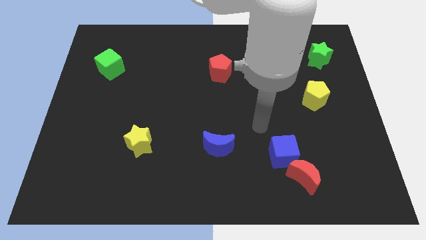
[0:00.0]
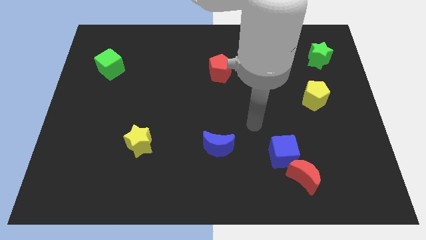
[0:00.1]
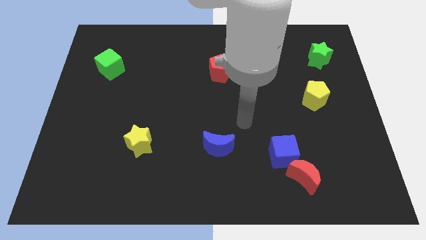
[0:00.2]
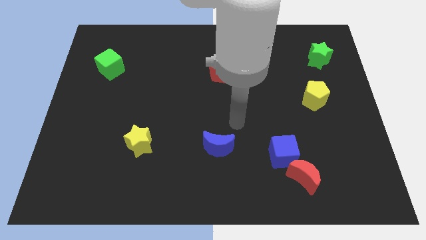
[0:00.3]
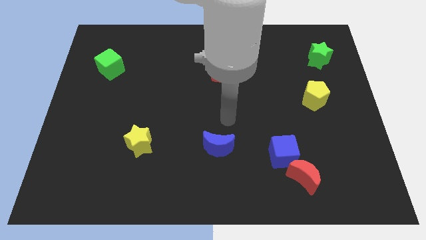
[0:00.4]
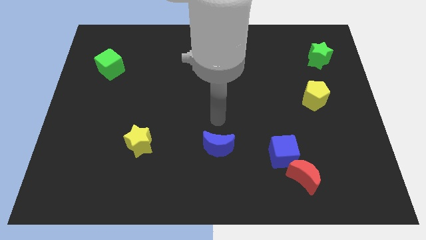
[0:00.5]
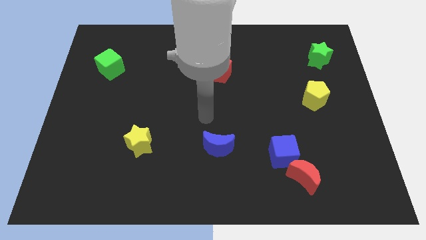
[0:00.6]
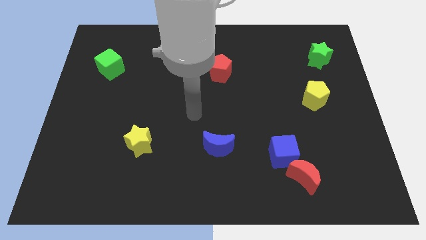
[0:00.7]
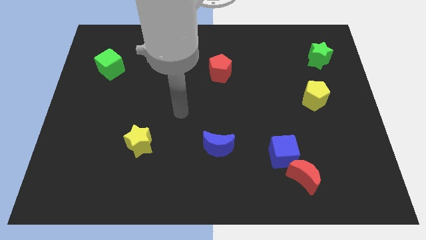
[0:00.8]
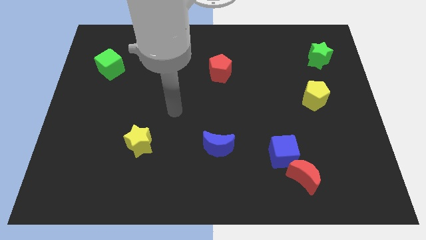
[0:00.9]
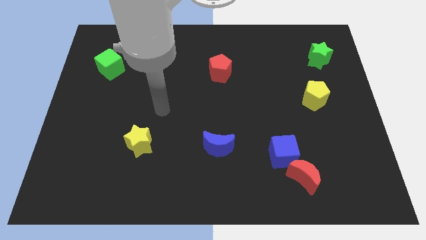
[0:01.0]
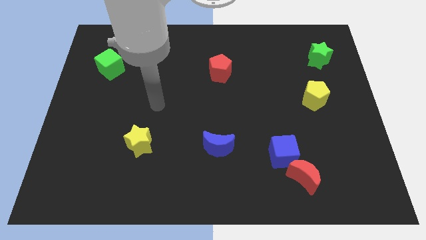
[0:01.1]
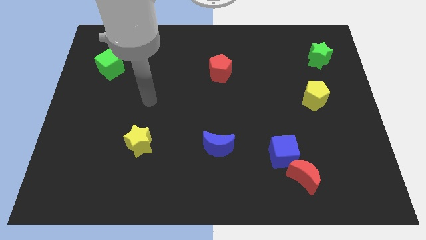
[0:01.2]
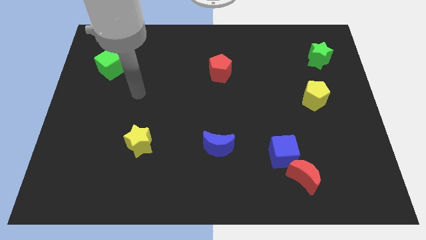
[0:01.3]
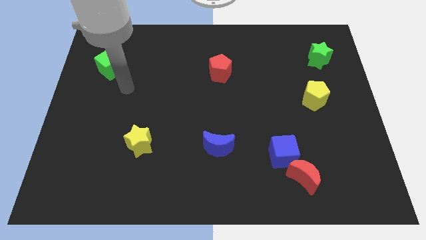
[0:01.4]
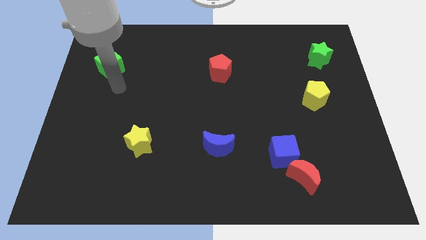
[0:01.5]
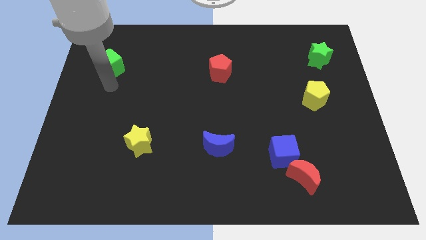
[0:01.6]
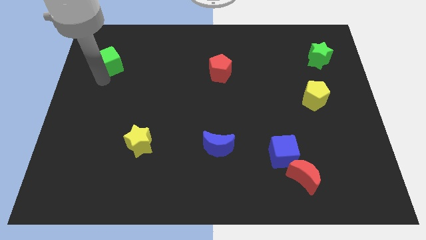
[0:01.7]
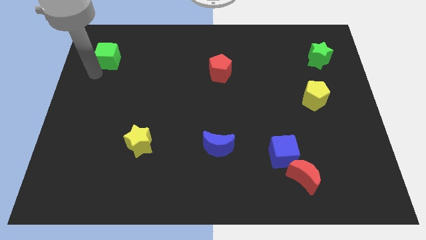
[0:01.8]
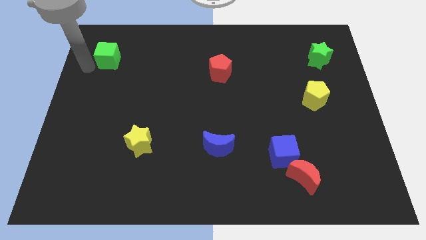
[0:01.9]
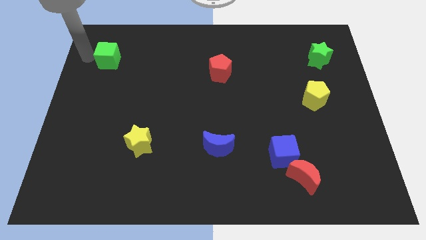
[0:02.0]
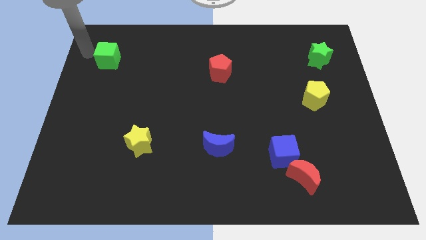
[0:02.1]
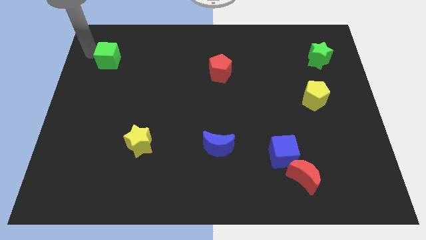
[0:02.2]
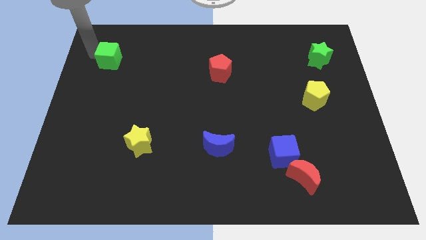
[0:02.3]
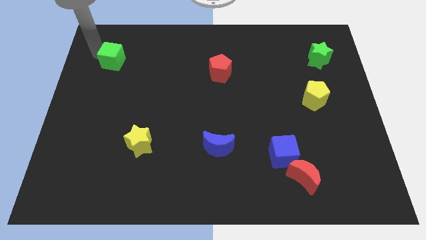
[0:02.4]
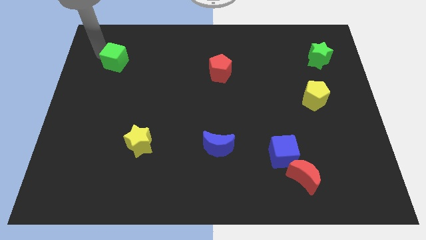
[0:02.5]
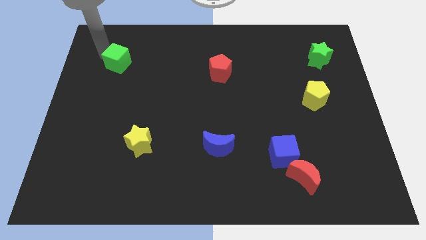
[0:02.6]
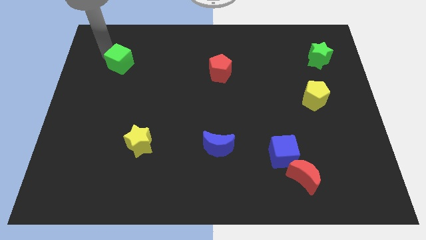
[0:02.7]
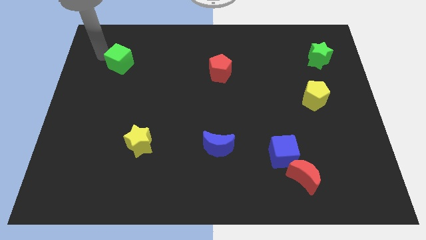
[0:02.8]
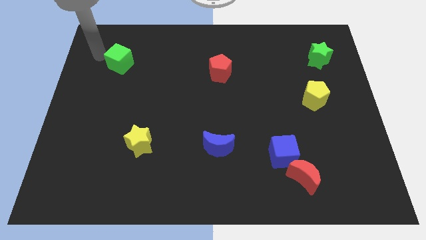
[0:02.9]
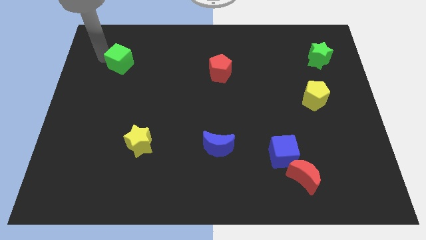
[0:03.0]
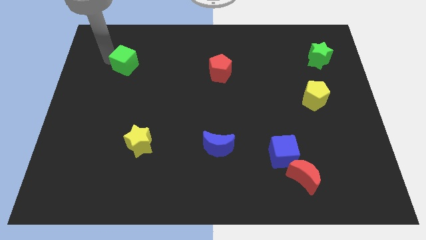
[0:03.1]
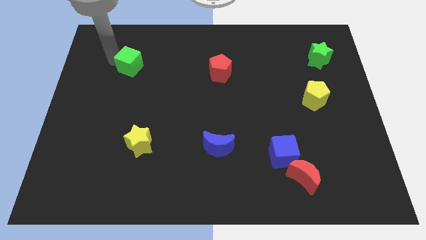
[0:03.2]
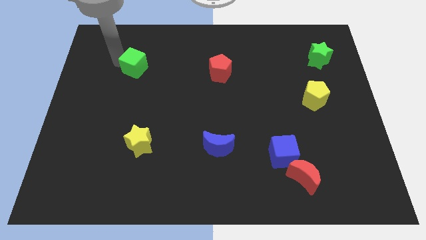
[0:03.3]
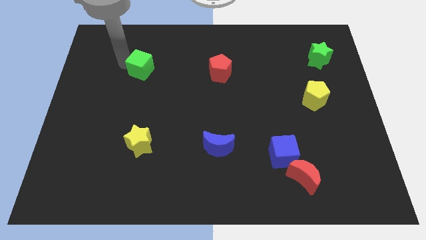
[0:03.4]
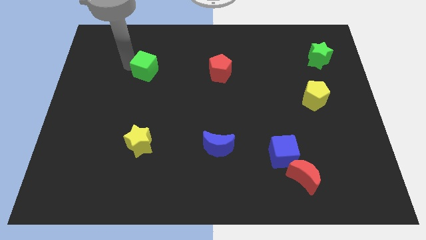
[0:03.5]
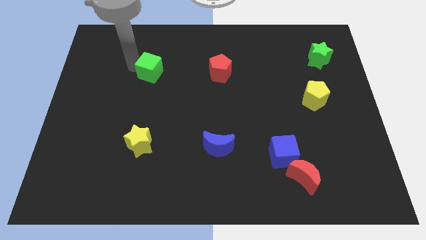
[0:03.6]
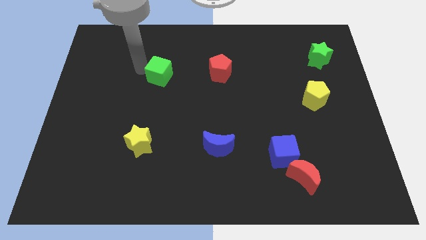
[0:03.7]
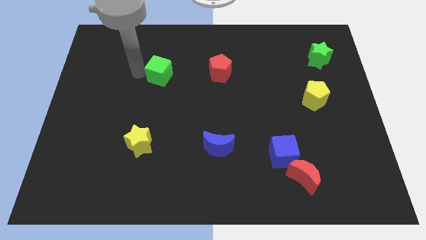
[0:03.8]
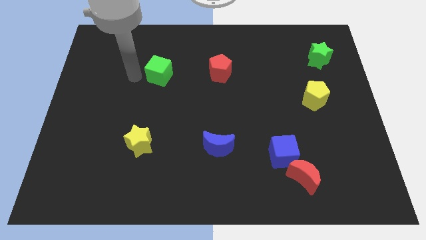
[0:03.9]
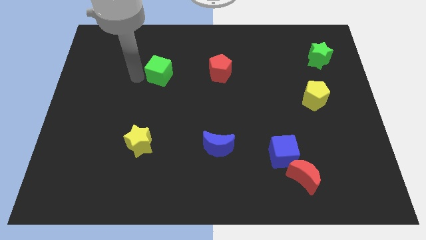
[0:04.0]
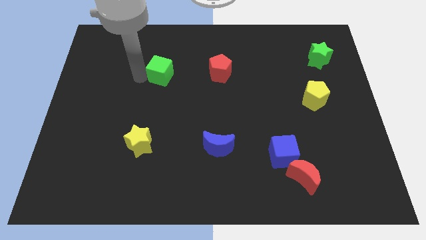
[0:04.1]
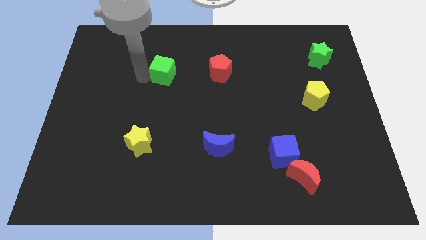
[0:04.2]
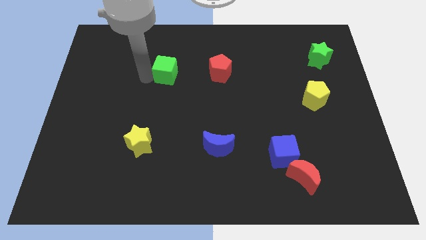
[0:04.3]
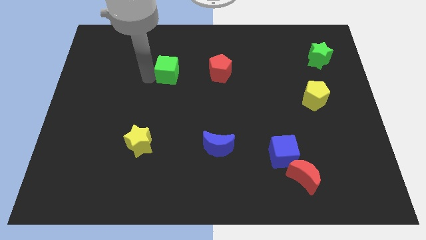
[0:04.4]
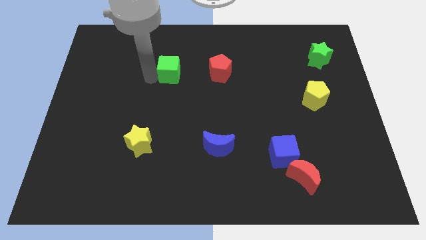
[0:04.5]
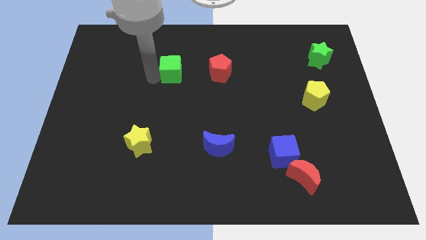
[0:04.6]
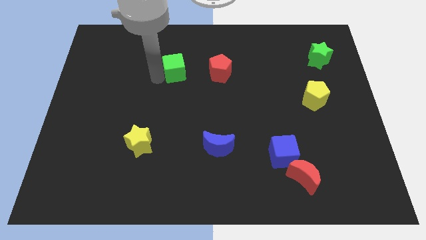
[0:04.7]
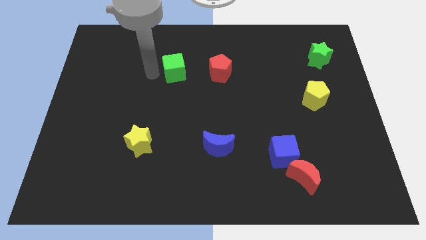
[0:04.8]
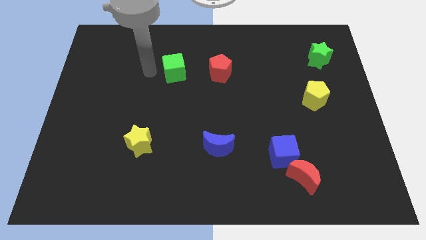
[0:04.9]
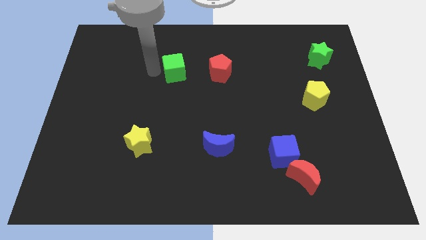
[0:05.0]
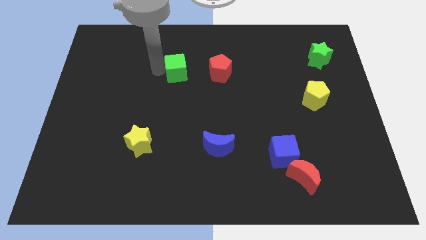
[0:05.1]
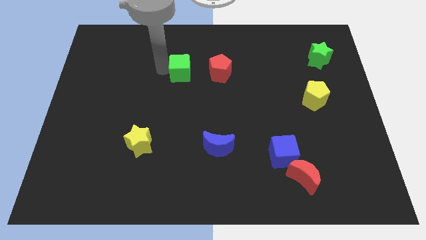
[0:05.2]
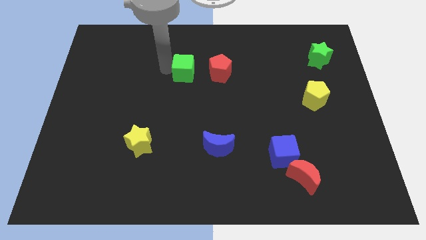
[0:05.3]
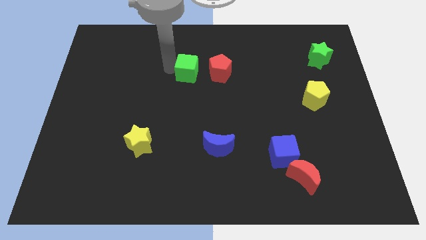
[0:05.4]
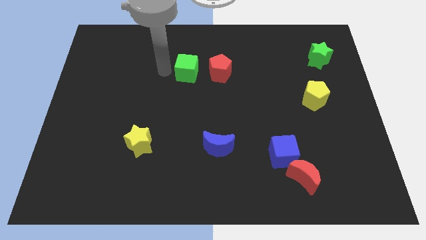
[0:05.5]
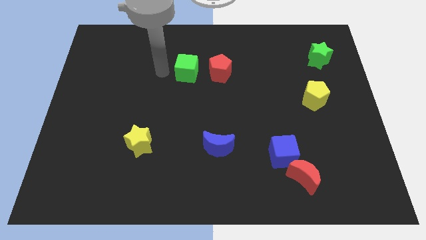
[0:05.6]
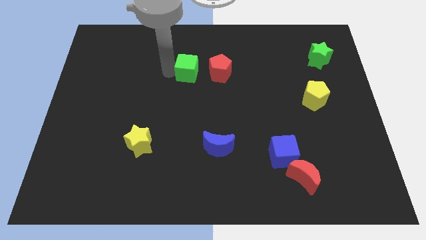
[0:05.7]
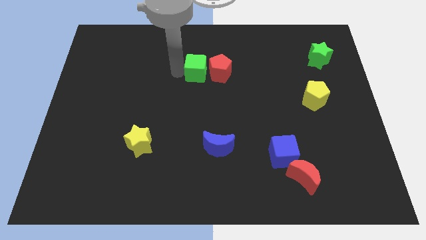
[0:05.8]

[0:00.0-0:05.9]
push the green cube towards the red pentagon

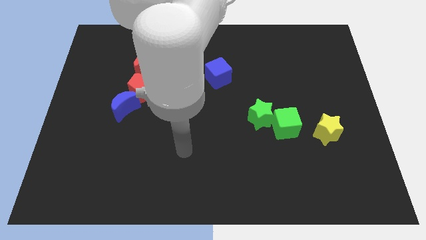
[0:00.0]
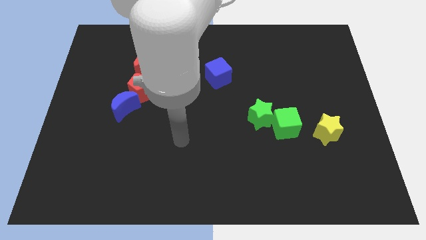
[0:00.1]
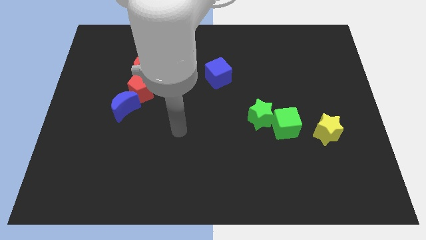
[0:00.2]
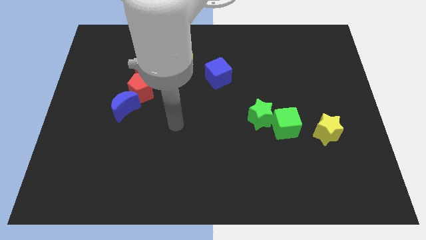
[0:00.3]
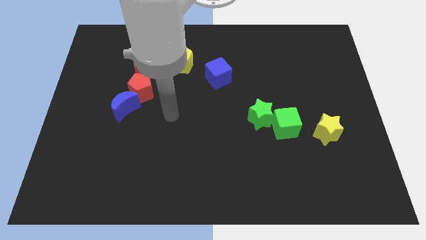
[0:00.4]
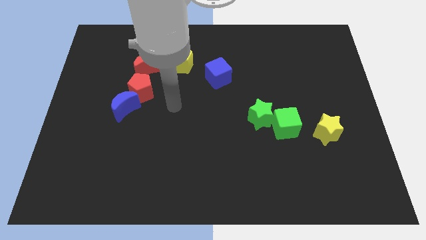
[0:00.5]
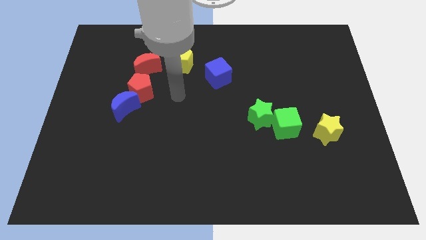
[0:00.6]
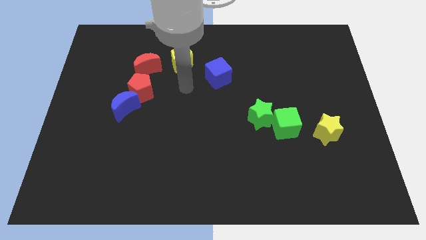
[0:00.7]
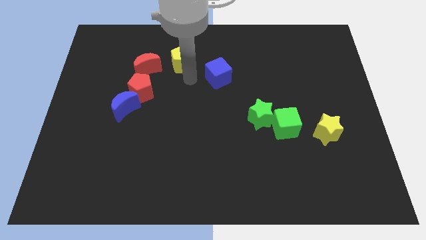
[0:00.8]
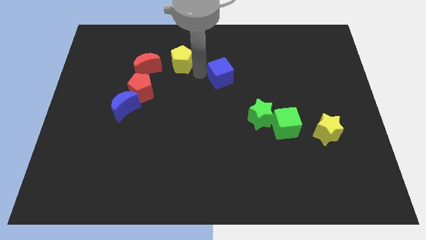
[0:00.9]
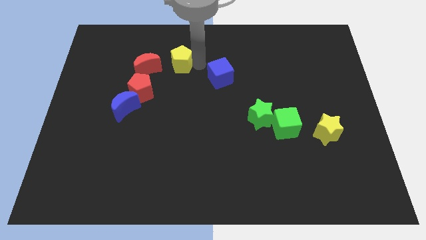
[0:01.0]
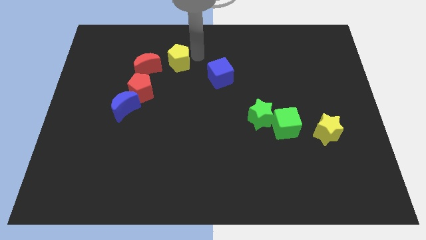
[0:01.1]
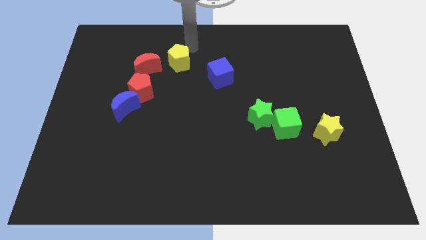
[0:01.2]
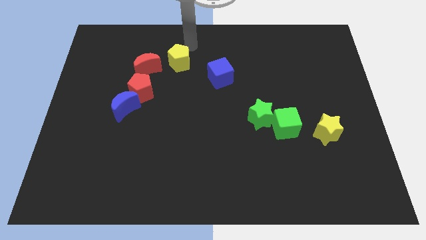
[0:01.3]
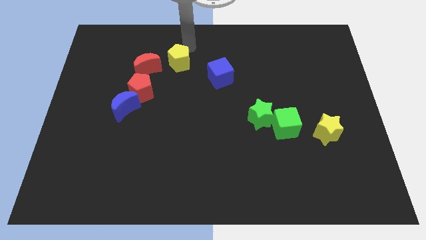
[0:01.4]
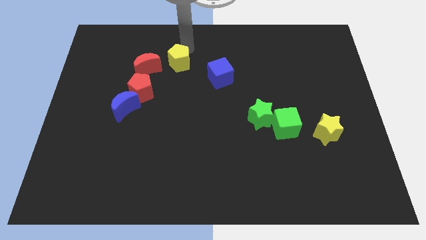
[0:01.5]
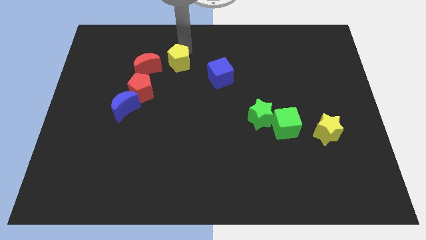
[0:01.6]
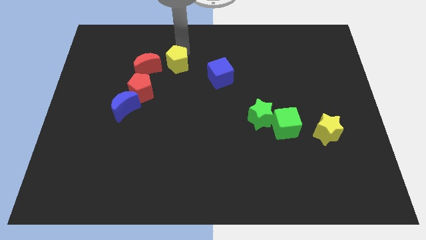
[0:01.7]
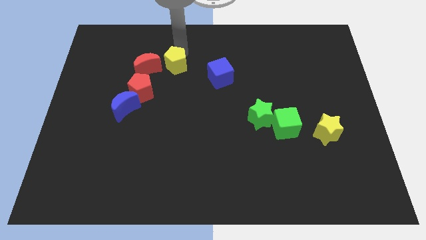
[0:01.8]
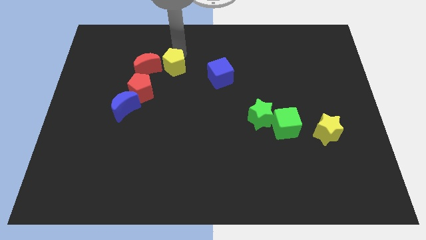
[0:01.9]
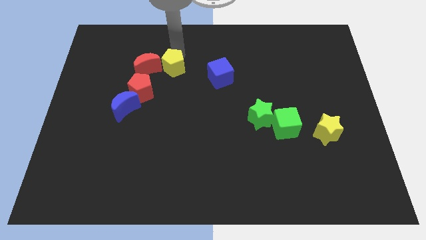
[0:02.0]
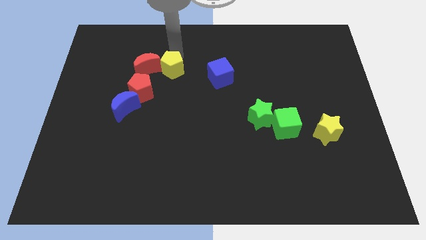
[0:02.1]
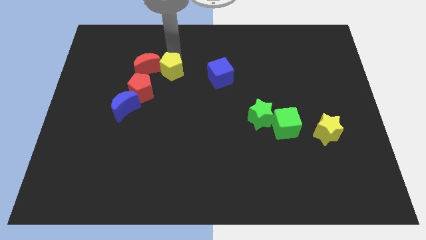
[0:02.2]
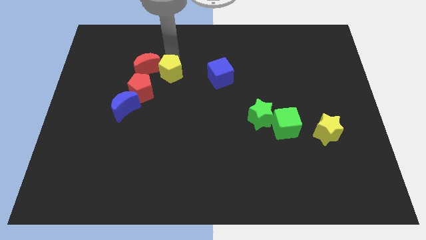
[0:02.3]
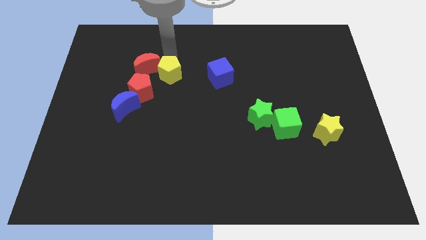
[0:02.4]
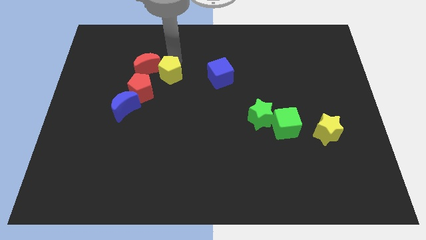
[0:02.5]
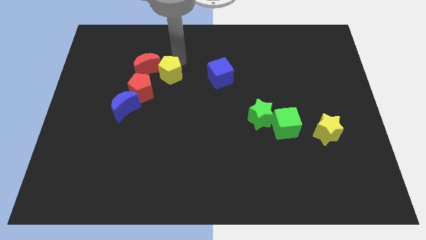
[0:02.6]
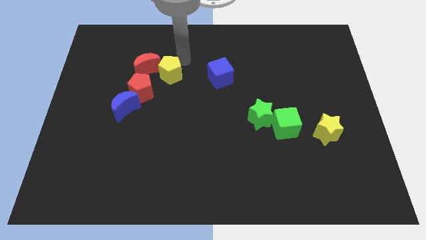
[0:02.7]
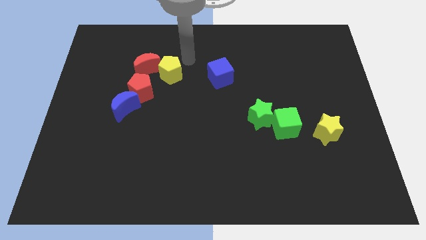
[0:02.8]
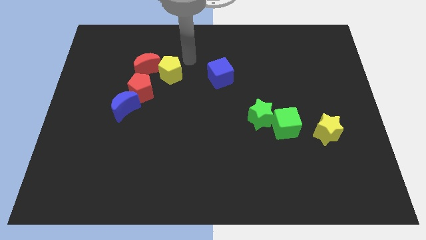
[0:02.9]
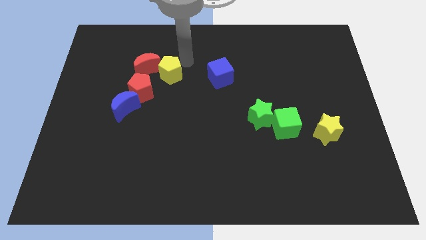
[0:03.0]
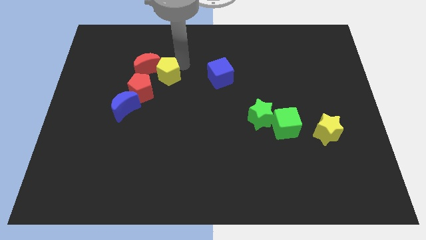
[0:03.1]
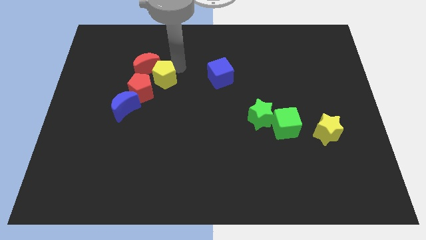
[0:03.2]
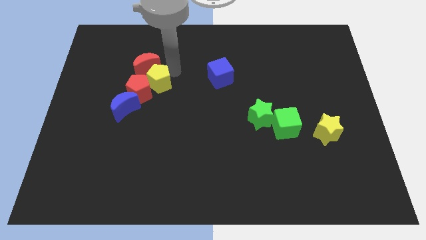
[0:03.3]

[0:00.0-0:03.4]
move the yellow pentagon towards the red pentagon
